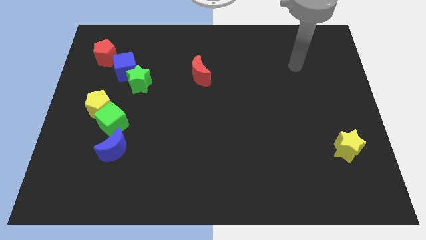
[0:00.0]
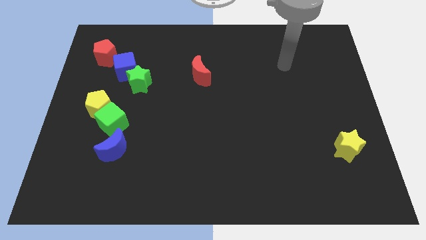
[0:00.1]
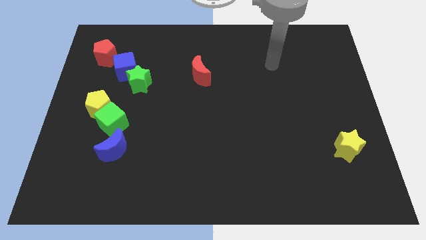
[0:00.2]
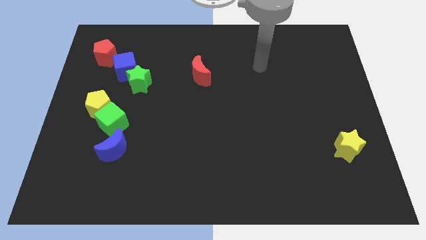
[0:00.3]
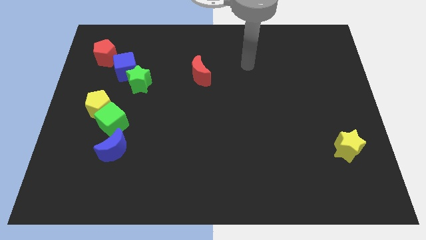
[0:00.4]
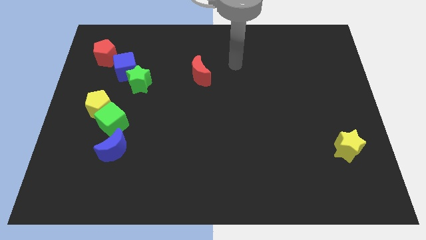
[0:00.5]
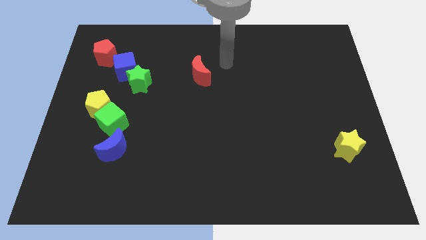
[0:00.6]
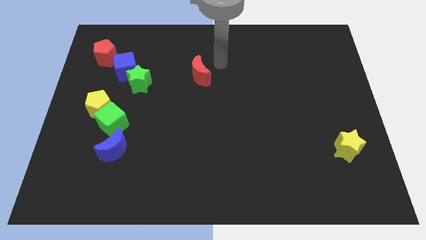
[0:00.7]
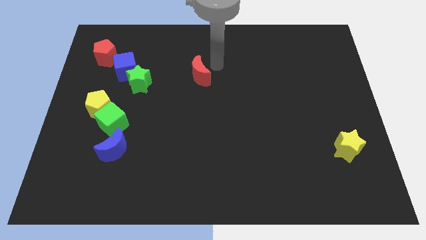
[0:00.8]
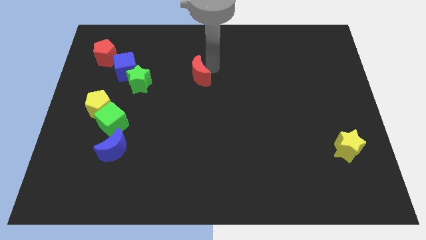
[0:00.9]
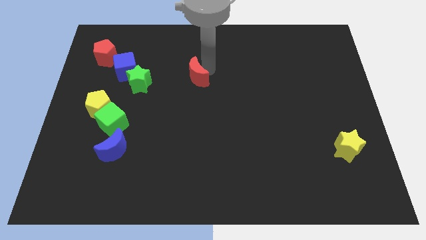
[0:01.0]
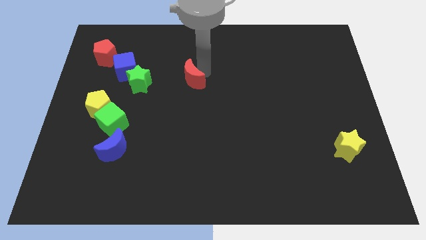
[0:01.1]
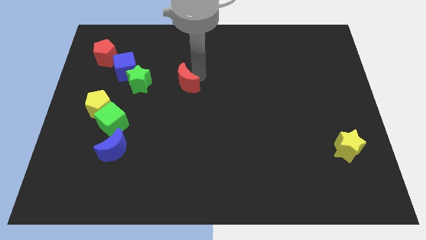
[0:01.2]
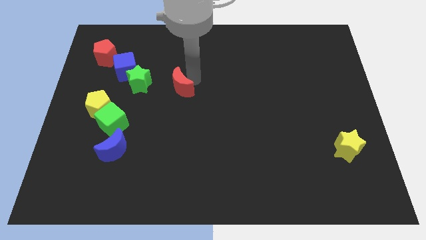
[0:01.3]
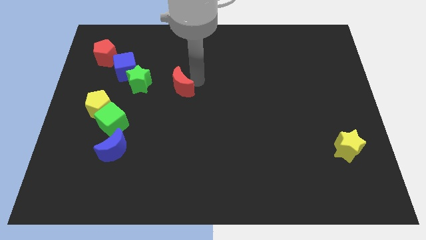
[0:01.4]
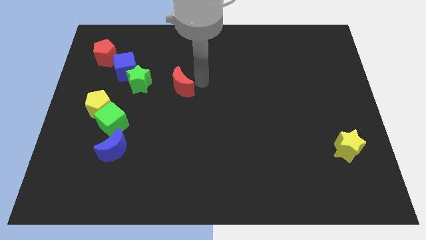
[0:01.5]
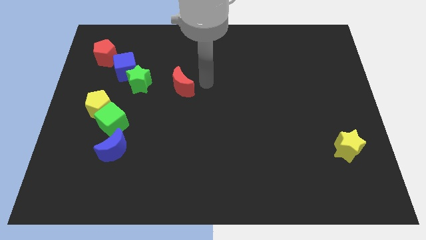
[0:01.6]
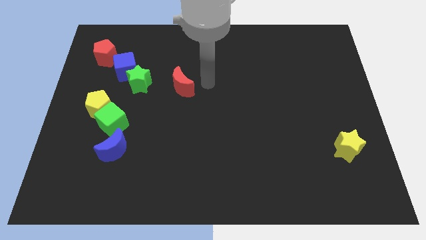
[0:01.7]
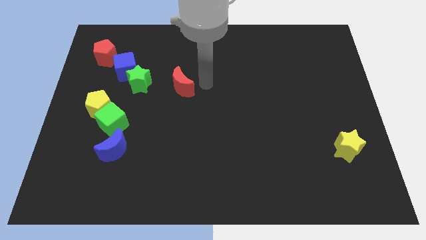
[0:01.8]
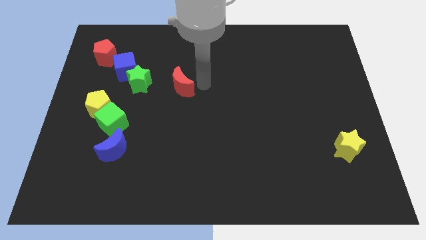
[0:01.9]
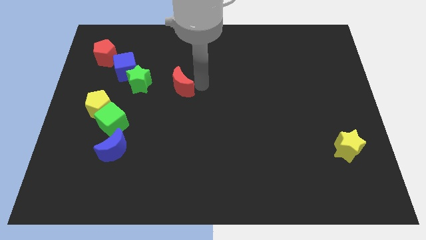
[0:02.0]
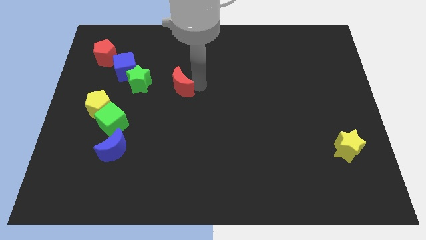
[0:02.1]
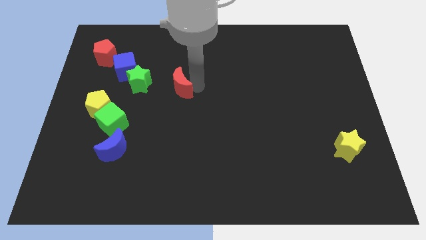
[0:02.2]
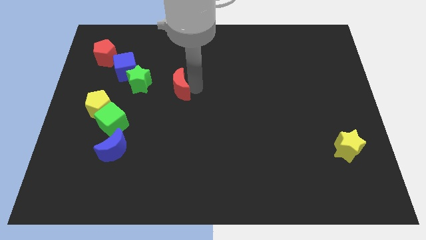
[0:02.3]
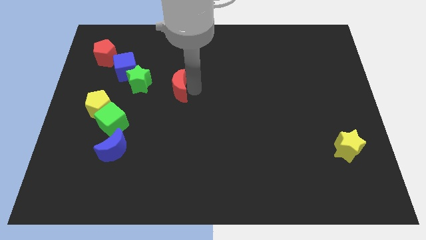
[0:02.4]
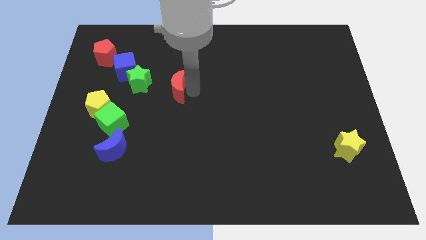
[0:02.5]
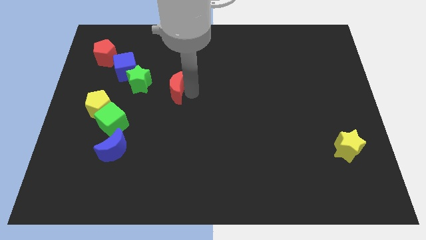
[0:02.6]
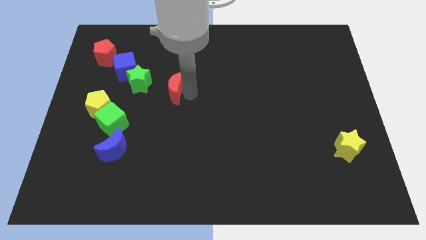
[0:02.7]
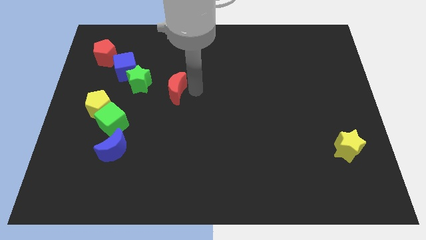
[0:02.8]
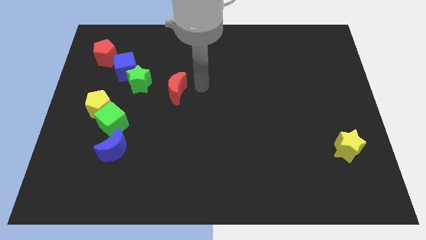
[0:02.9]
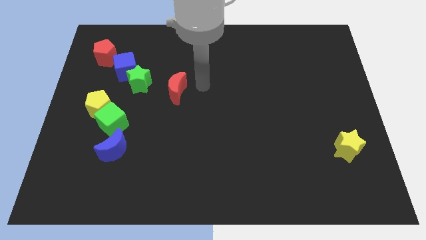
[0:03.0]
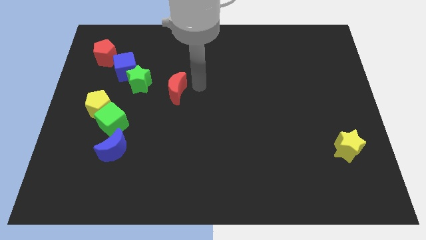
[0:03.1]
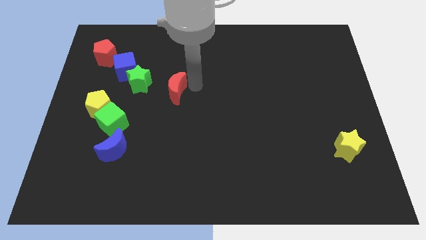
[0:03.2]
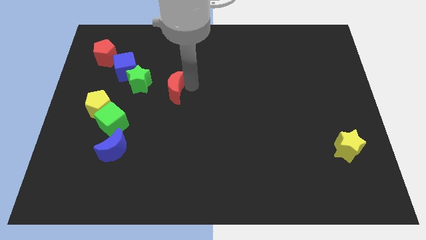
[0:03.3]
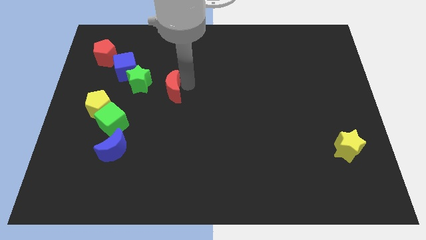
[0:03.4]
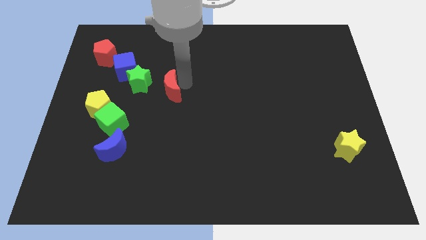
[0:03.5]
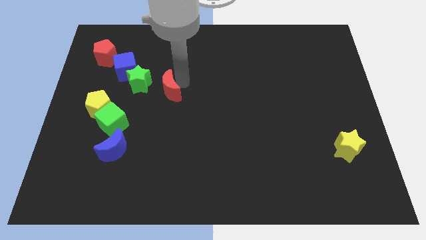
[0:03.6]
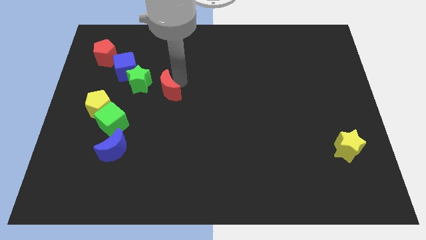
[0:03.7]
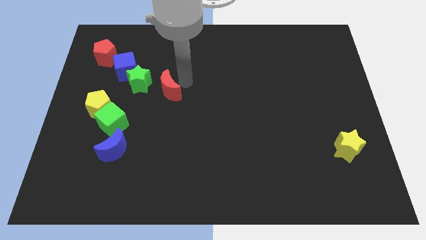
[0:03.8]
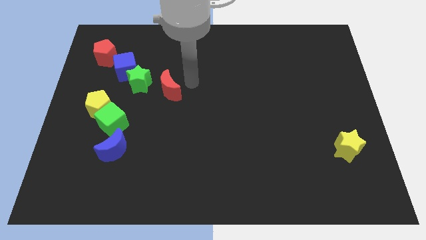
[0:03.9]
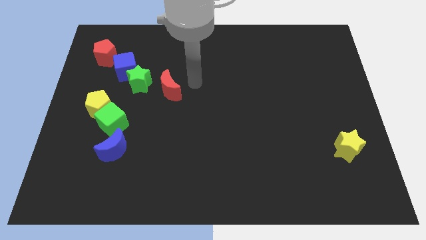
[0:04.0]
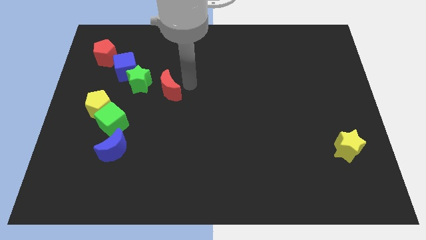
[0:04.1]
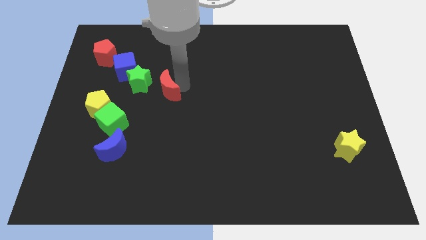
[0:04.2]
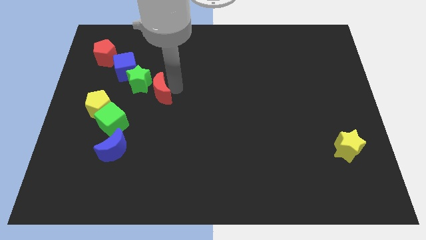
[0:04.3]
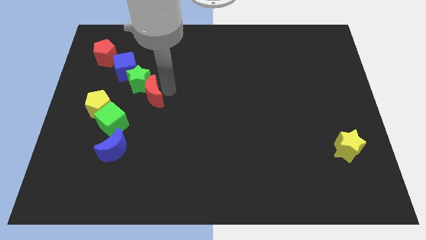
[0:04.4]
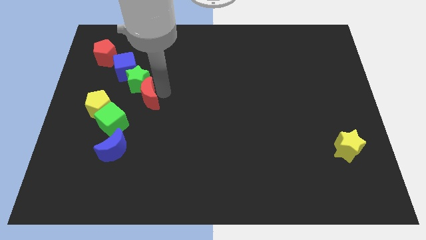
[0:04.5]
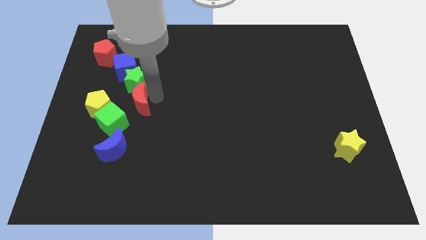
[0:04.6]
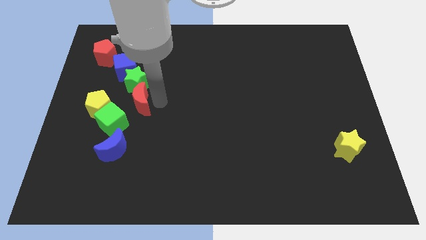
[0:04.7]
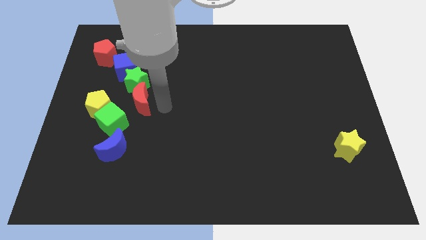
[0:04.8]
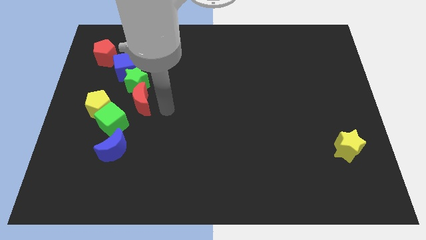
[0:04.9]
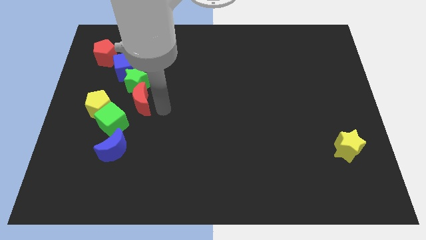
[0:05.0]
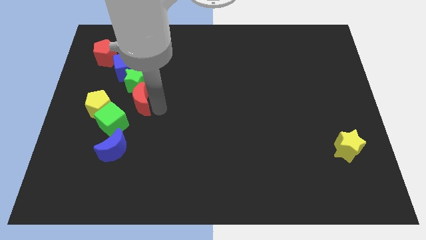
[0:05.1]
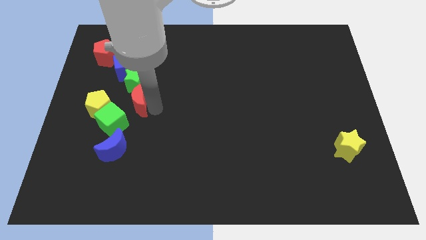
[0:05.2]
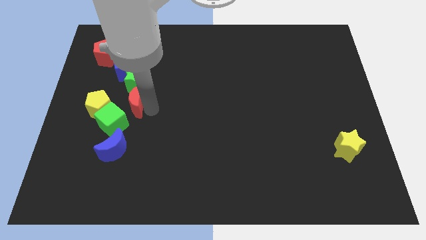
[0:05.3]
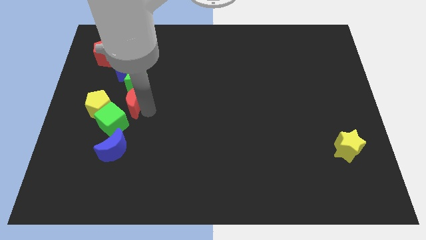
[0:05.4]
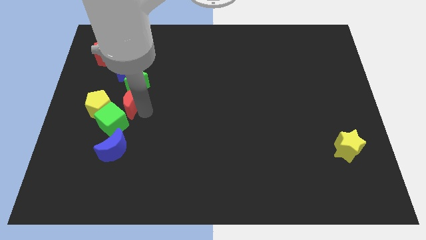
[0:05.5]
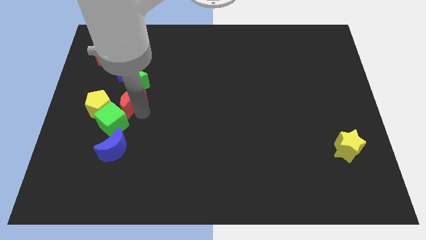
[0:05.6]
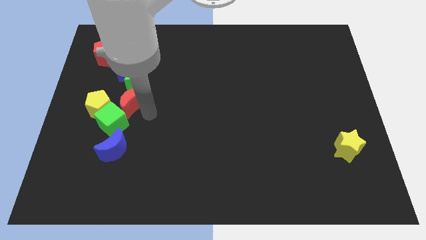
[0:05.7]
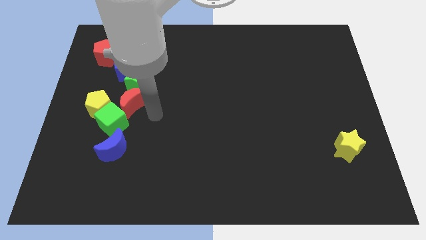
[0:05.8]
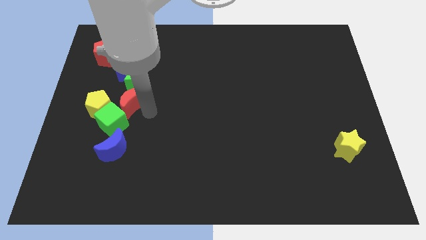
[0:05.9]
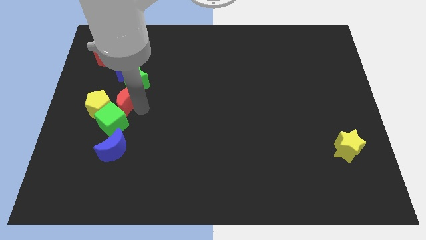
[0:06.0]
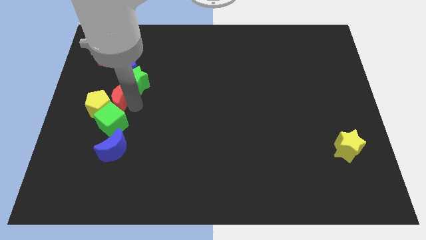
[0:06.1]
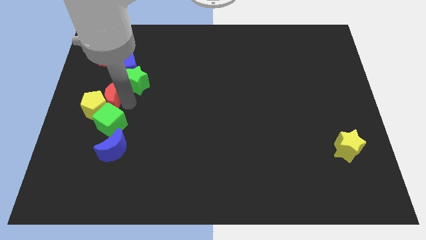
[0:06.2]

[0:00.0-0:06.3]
push the red moon diagonally up and to the left of the green cube

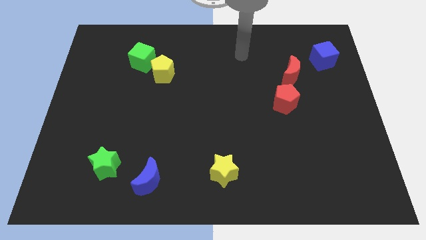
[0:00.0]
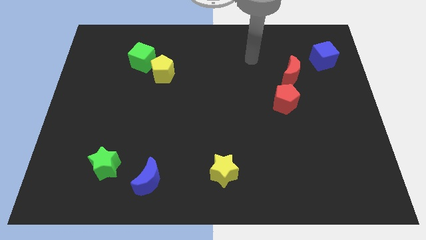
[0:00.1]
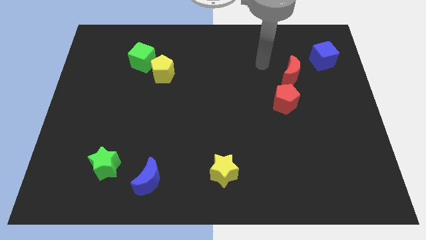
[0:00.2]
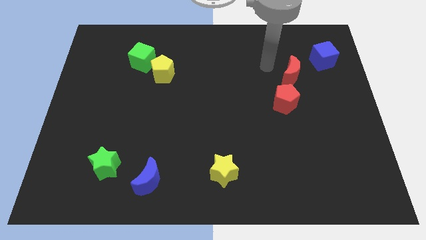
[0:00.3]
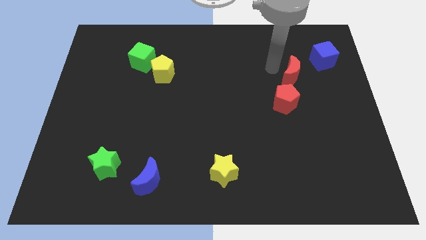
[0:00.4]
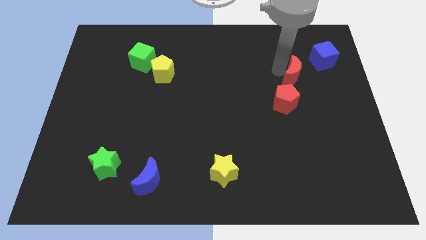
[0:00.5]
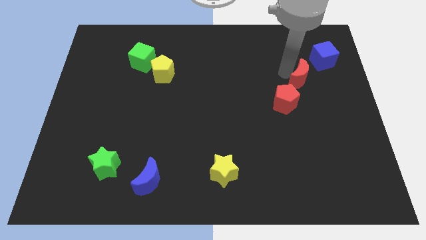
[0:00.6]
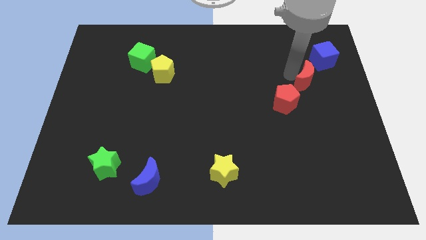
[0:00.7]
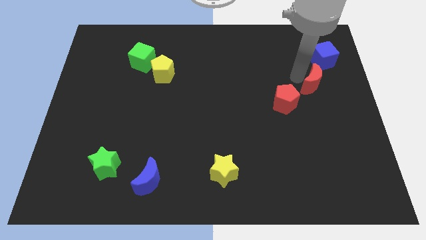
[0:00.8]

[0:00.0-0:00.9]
put the red moon to the bottom of the blue cube
